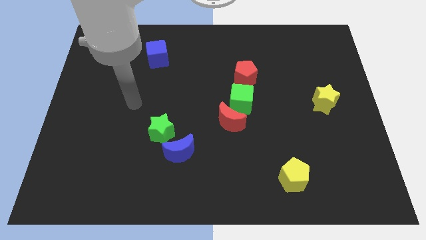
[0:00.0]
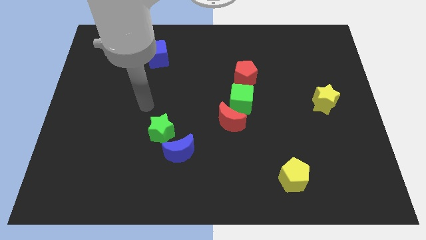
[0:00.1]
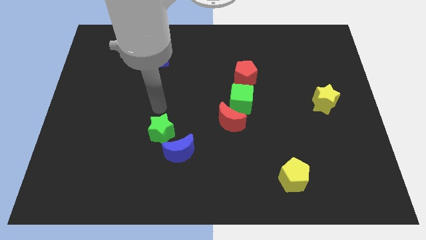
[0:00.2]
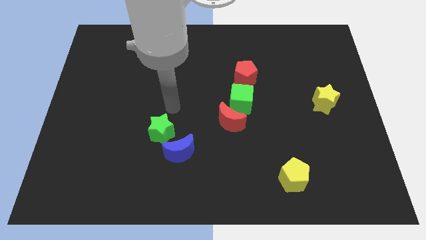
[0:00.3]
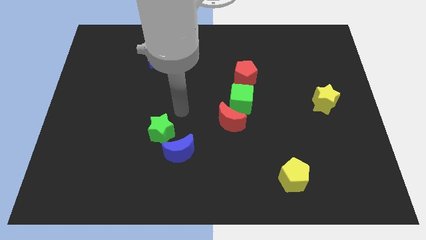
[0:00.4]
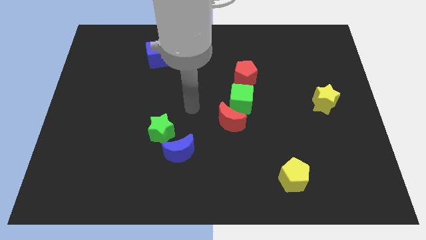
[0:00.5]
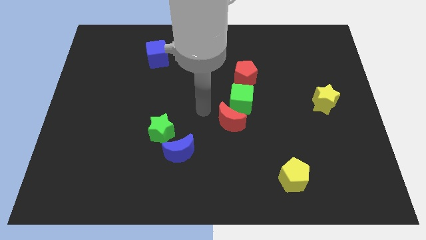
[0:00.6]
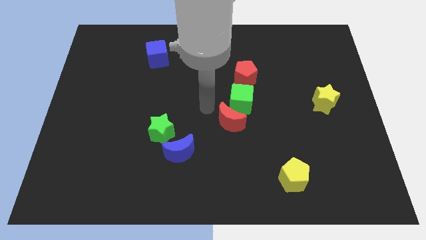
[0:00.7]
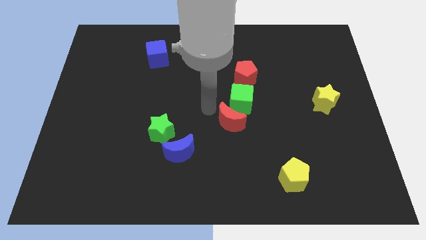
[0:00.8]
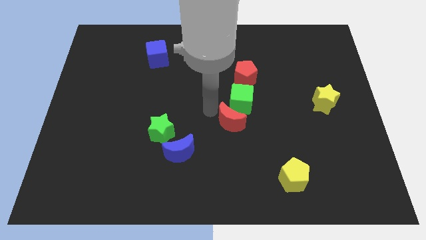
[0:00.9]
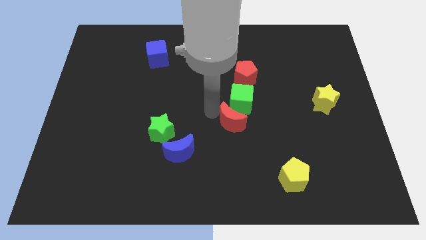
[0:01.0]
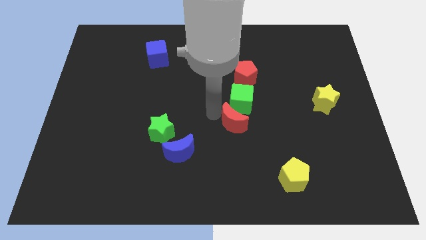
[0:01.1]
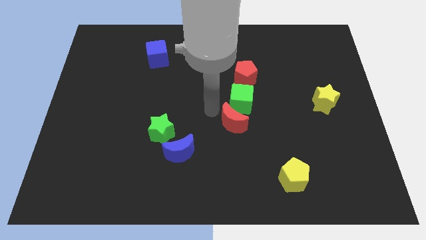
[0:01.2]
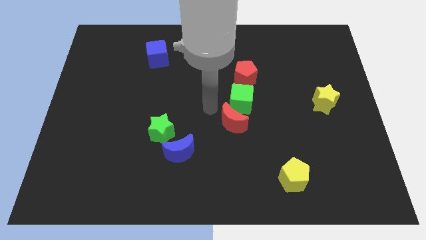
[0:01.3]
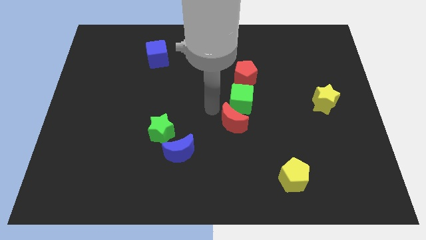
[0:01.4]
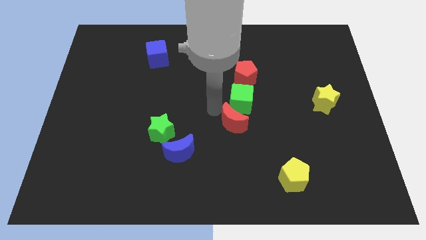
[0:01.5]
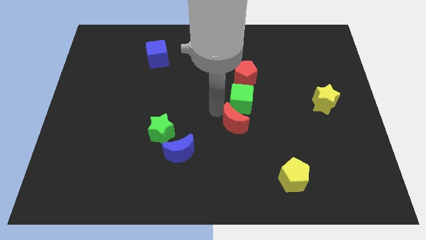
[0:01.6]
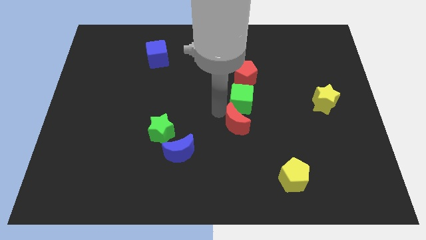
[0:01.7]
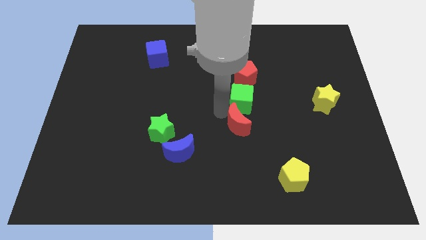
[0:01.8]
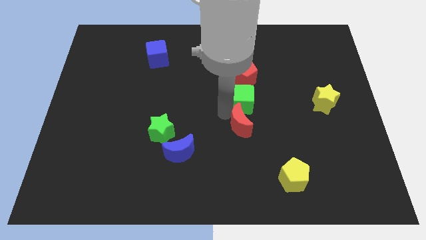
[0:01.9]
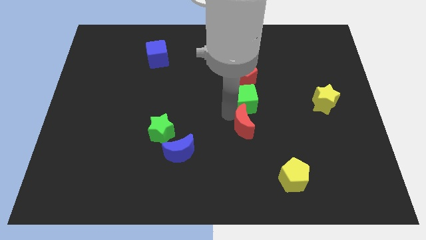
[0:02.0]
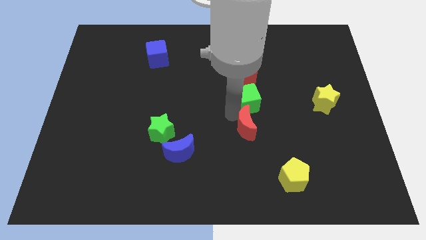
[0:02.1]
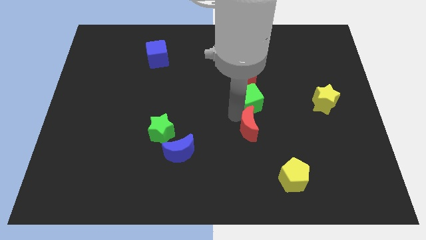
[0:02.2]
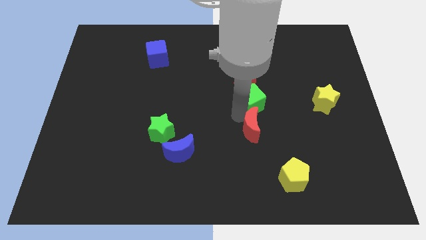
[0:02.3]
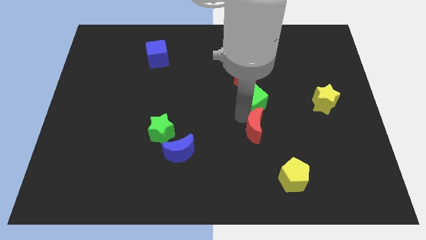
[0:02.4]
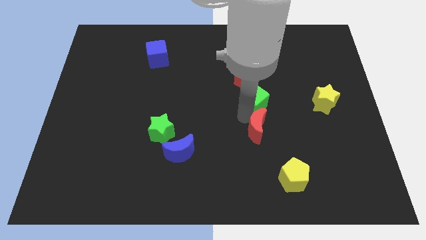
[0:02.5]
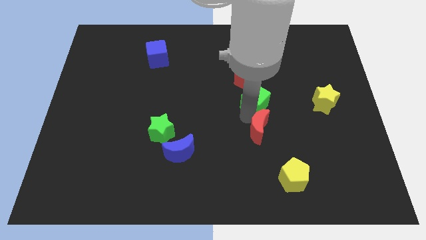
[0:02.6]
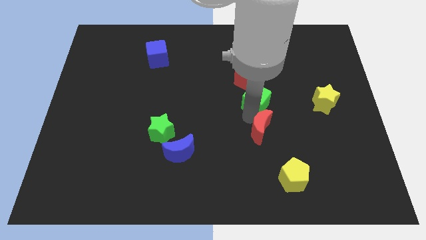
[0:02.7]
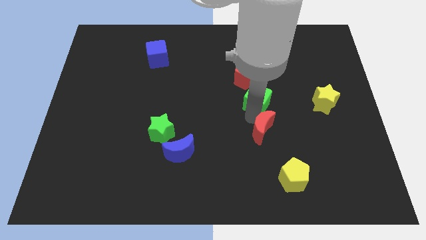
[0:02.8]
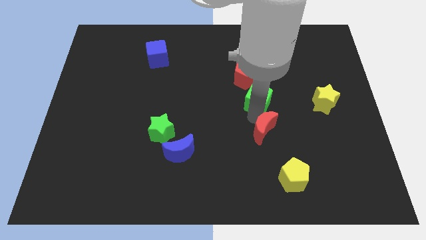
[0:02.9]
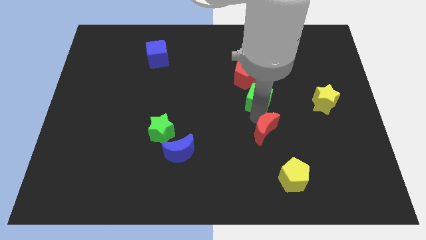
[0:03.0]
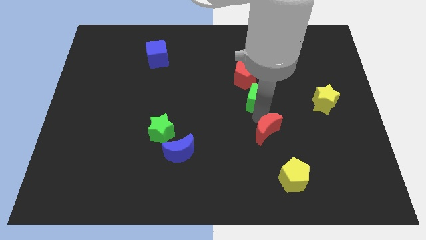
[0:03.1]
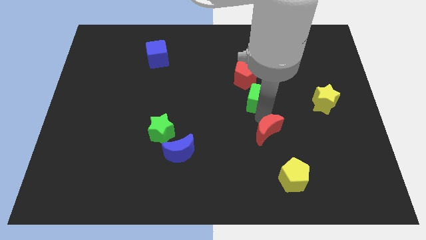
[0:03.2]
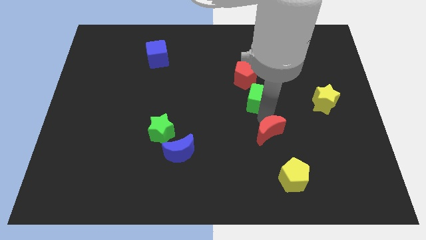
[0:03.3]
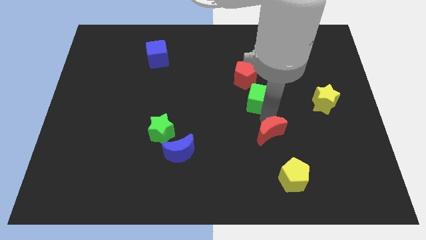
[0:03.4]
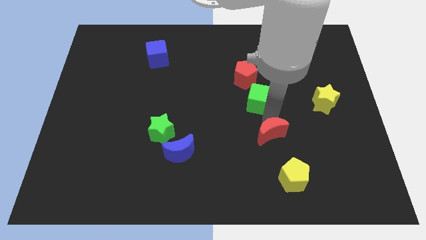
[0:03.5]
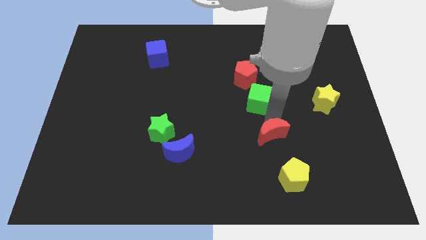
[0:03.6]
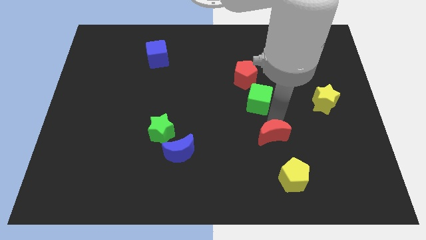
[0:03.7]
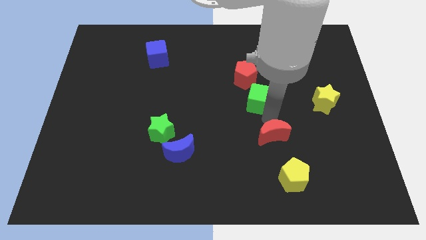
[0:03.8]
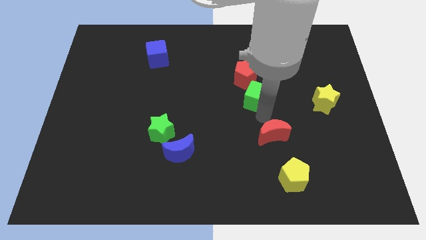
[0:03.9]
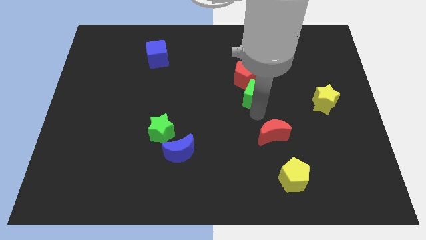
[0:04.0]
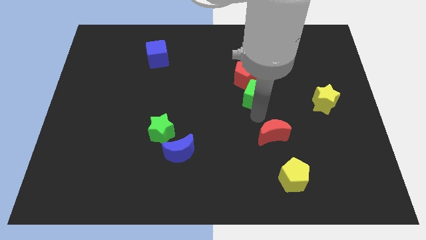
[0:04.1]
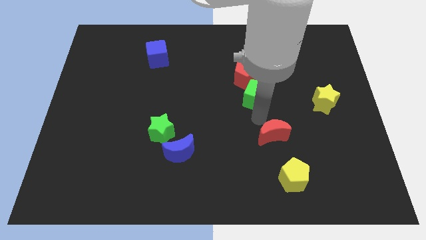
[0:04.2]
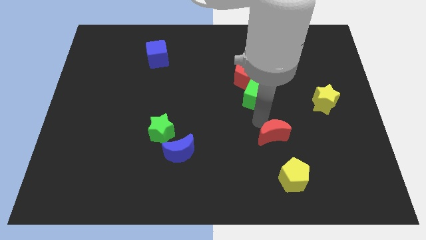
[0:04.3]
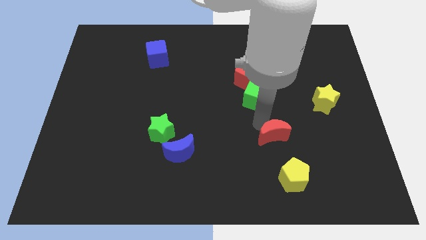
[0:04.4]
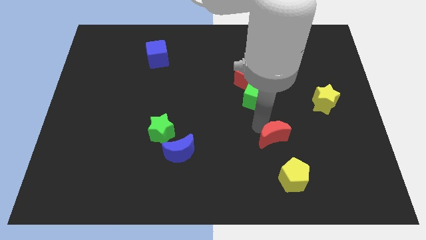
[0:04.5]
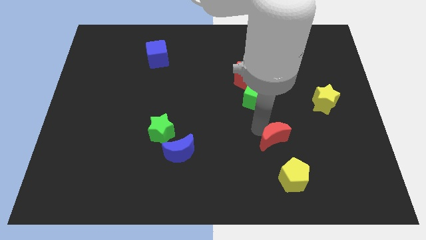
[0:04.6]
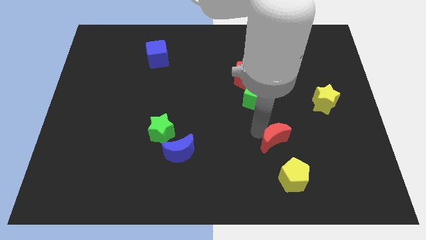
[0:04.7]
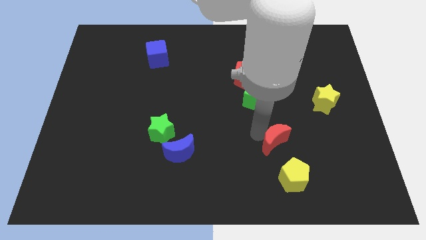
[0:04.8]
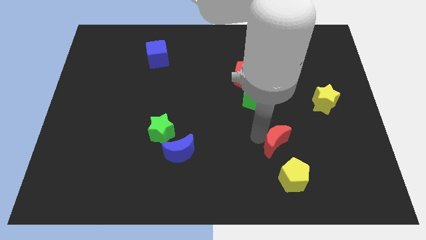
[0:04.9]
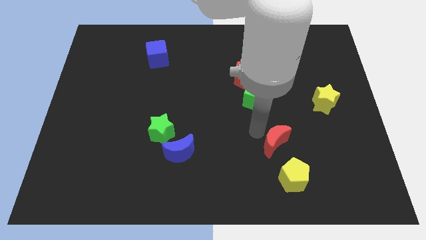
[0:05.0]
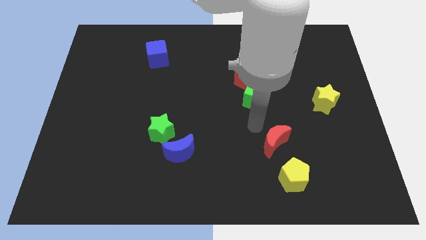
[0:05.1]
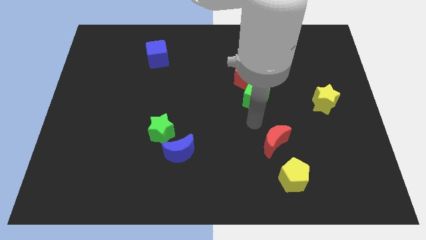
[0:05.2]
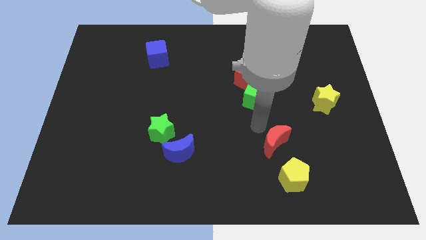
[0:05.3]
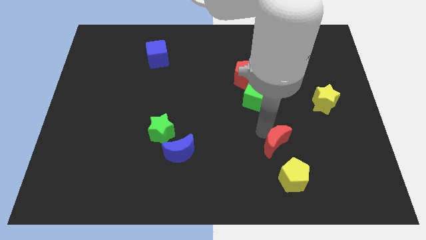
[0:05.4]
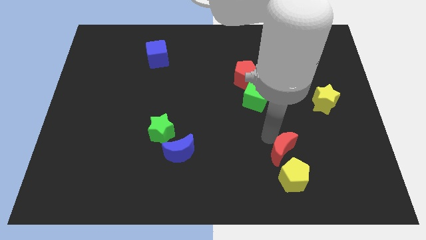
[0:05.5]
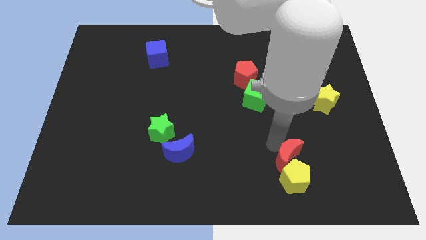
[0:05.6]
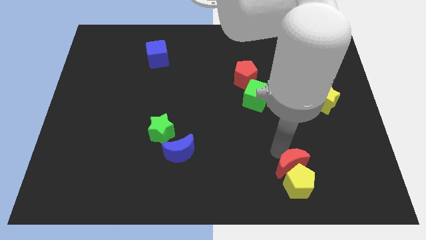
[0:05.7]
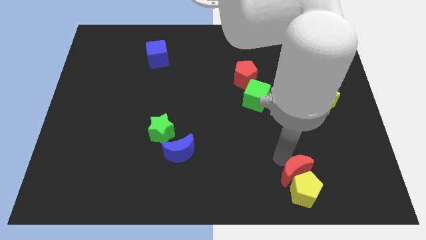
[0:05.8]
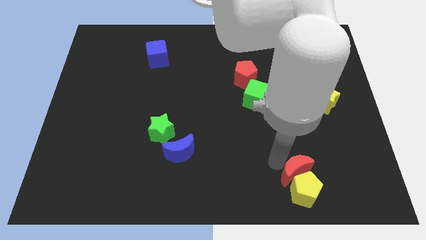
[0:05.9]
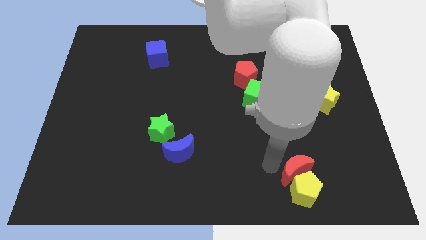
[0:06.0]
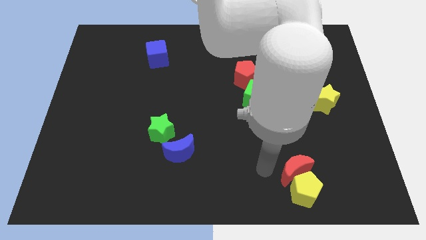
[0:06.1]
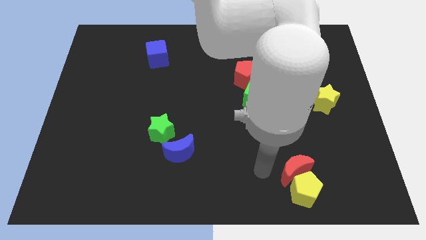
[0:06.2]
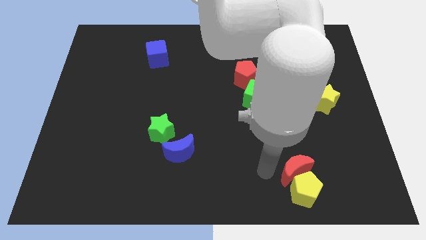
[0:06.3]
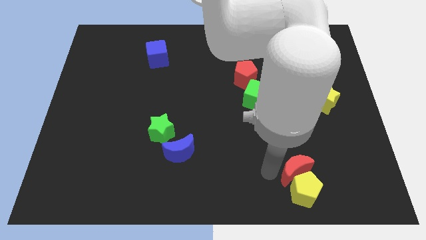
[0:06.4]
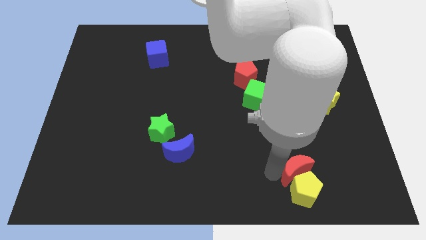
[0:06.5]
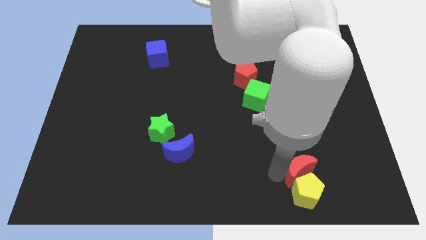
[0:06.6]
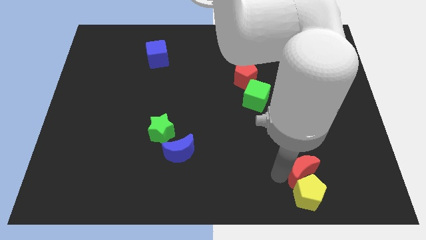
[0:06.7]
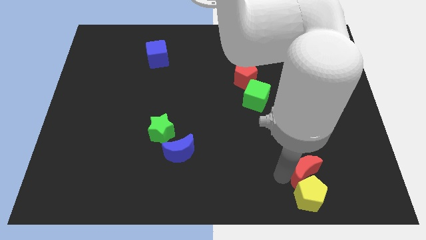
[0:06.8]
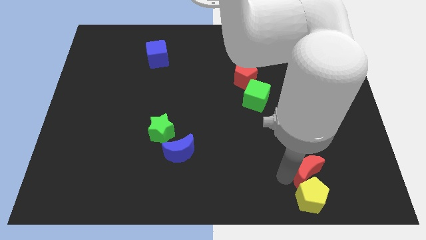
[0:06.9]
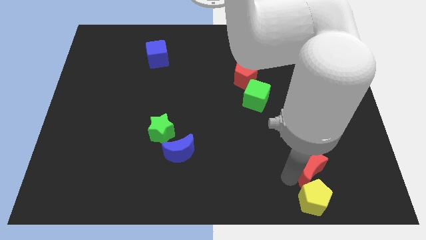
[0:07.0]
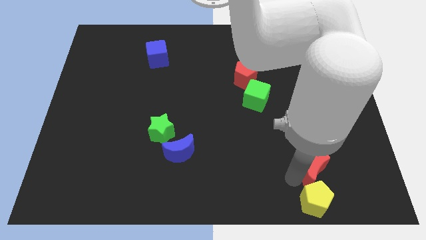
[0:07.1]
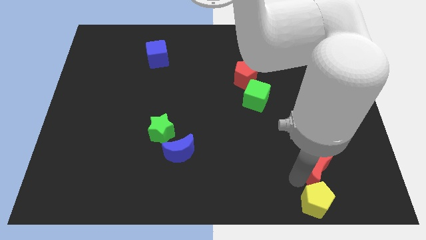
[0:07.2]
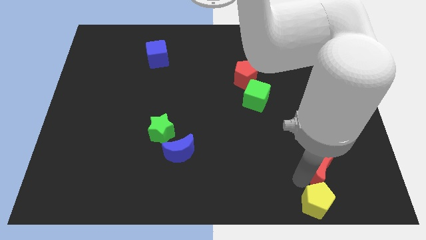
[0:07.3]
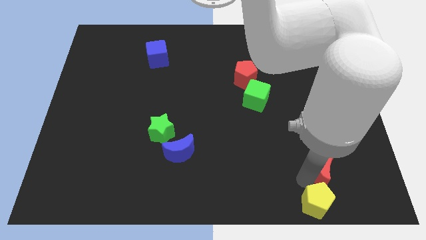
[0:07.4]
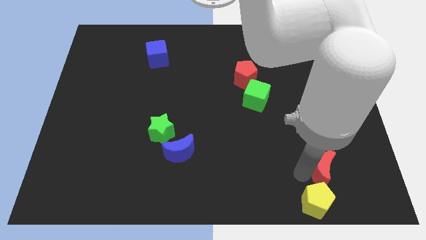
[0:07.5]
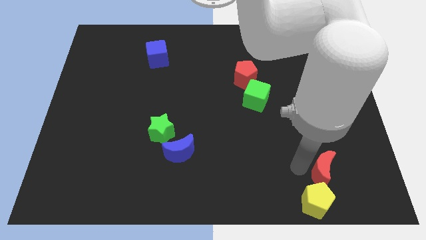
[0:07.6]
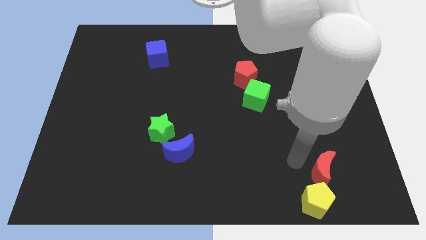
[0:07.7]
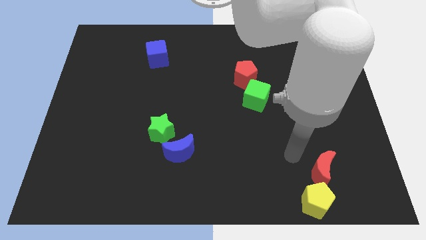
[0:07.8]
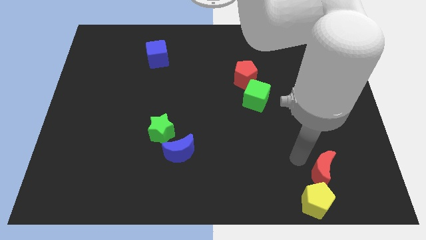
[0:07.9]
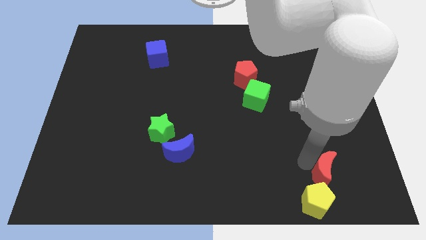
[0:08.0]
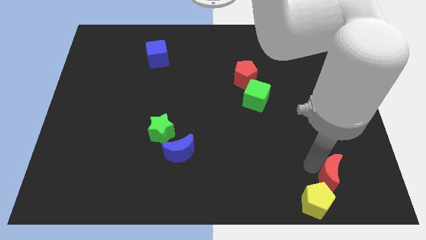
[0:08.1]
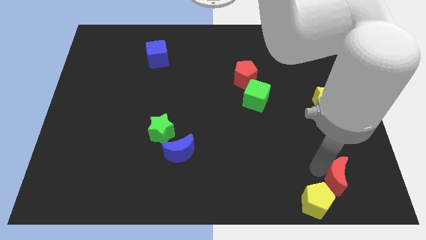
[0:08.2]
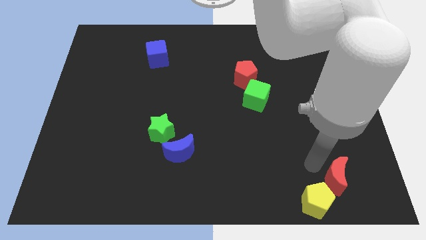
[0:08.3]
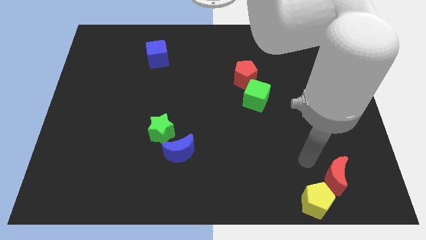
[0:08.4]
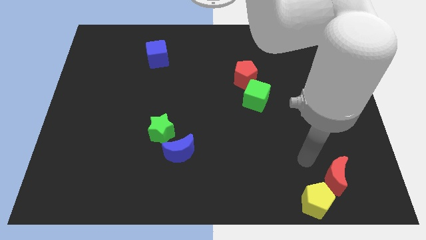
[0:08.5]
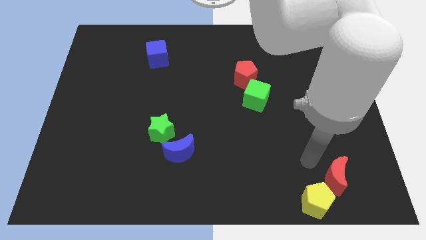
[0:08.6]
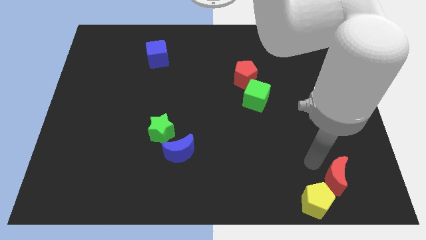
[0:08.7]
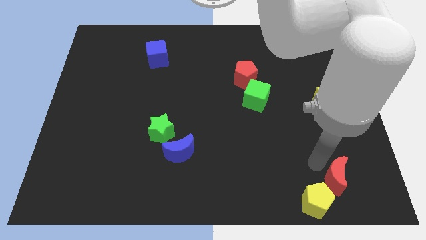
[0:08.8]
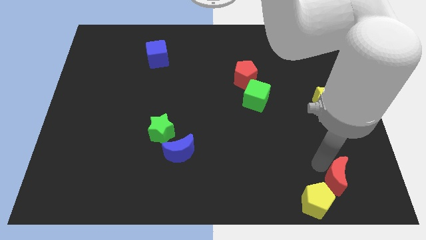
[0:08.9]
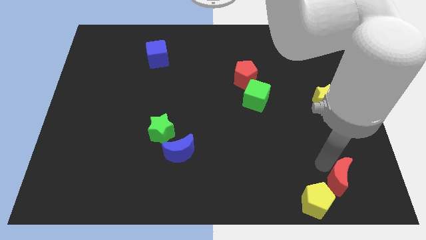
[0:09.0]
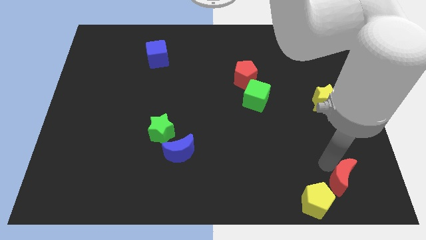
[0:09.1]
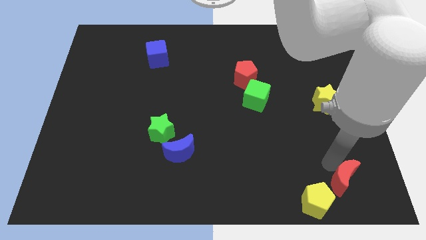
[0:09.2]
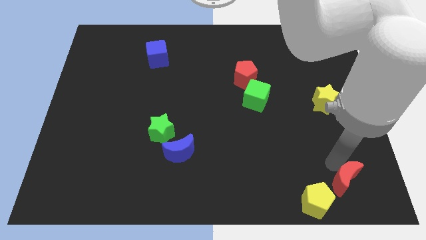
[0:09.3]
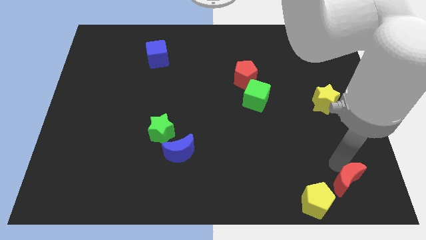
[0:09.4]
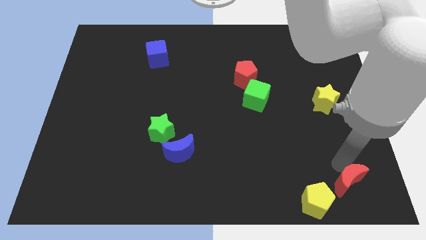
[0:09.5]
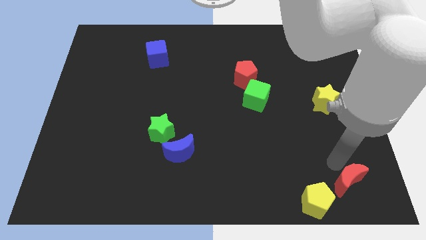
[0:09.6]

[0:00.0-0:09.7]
move the red moon to the bottom right of the board
